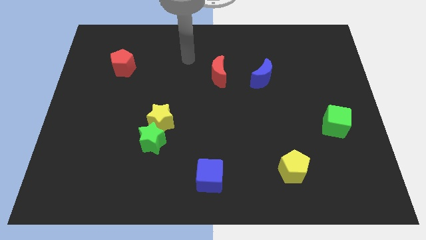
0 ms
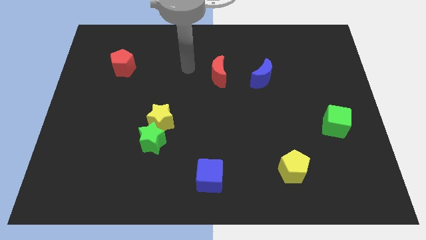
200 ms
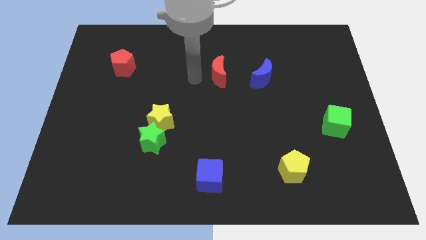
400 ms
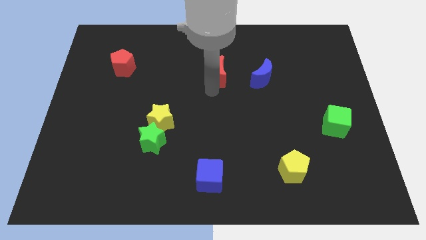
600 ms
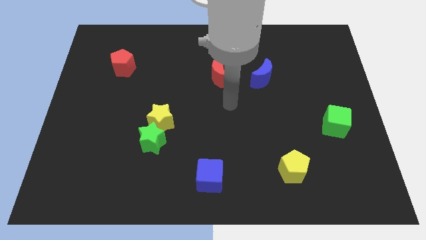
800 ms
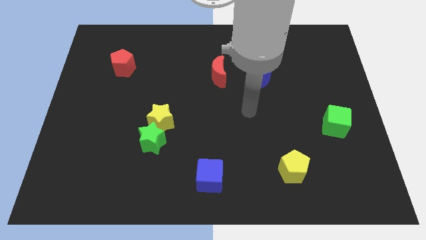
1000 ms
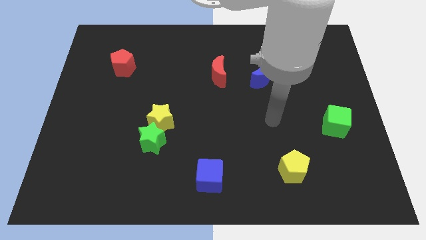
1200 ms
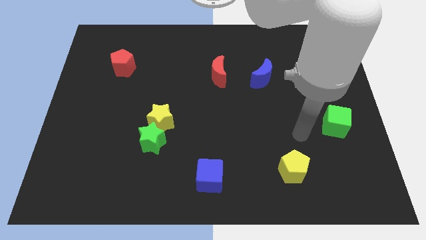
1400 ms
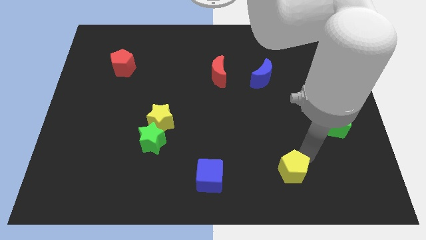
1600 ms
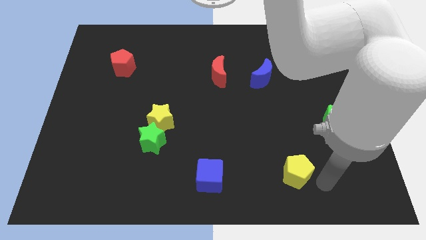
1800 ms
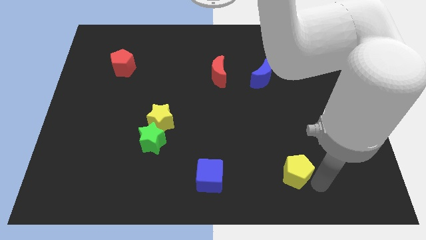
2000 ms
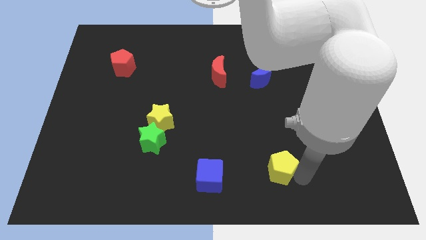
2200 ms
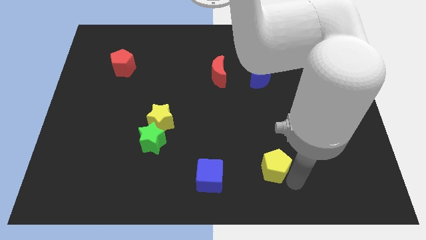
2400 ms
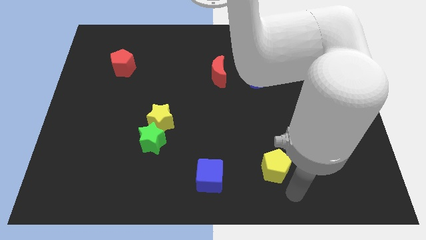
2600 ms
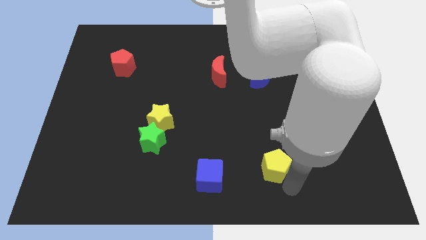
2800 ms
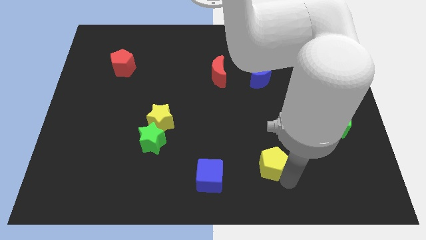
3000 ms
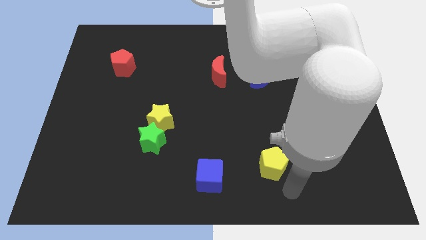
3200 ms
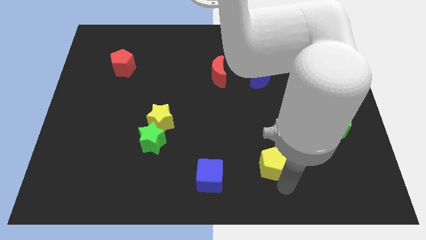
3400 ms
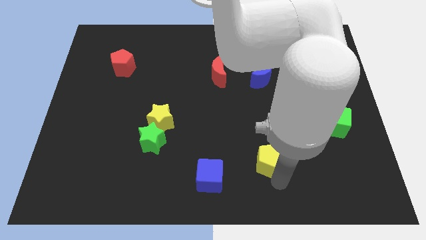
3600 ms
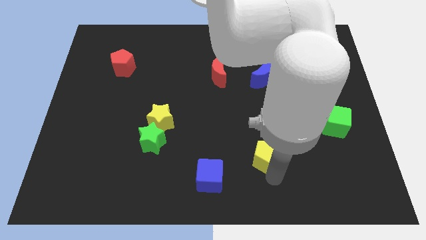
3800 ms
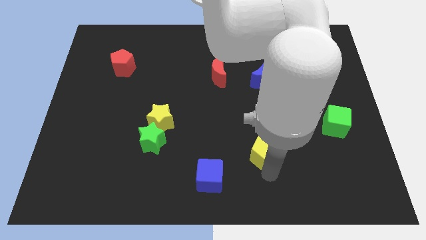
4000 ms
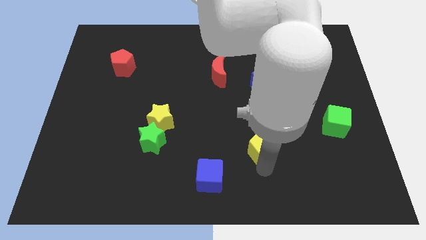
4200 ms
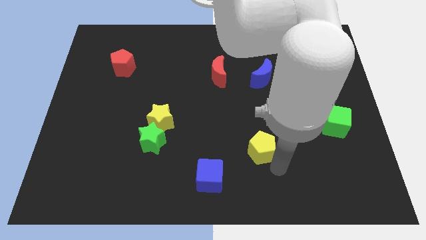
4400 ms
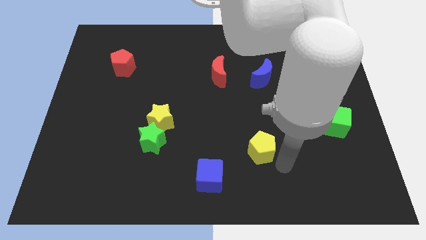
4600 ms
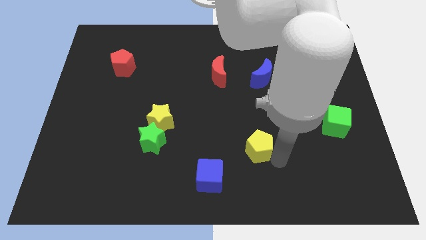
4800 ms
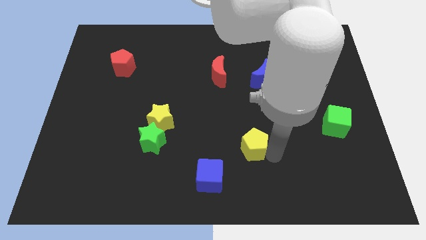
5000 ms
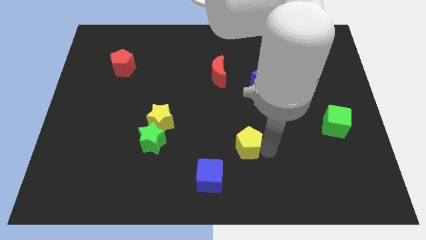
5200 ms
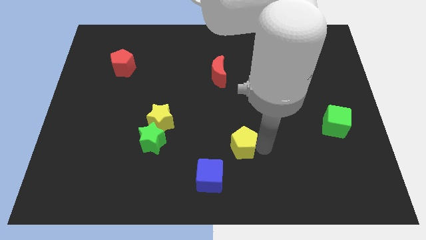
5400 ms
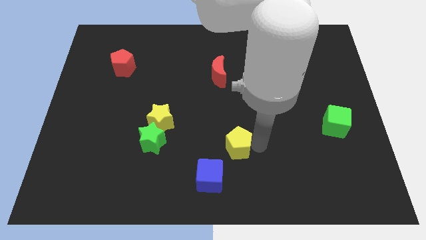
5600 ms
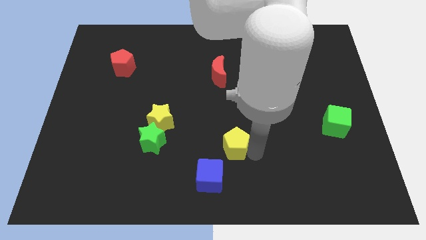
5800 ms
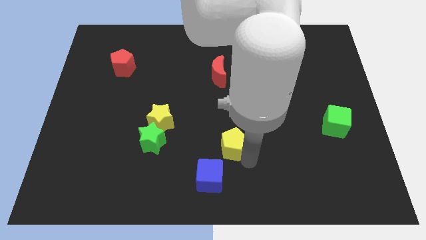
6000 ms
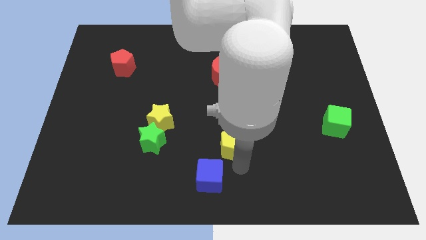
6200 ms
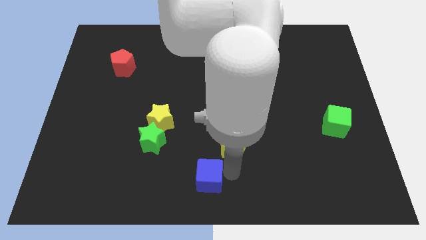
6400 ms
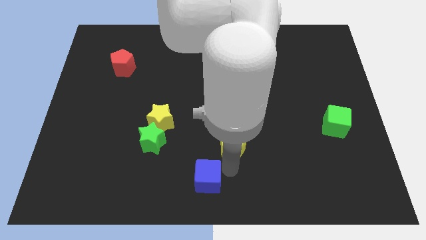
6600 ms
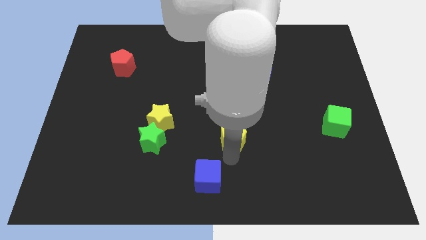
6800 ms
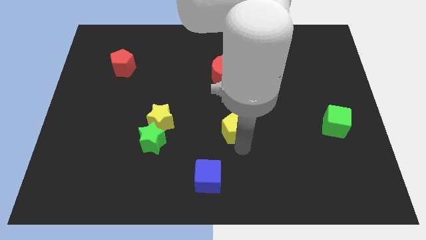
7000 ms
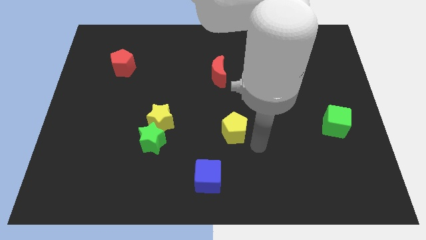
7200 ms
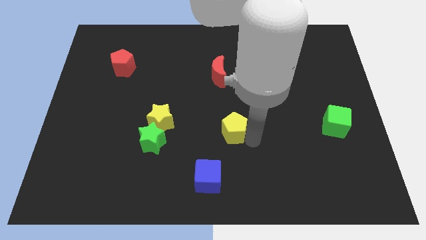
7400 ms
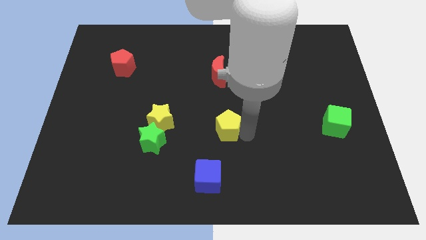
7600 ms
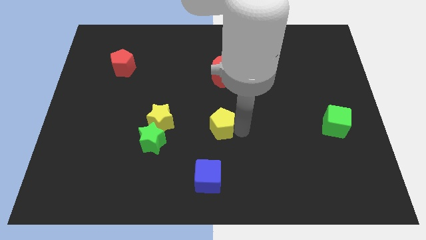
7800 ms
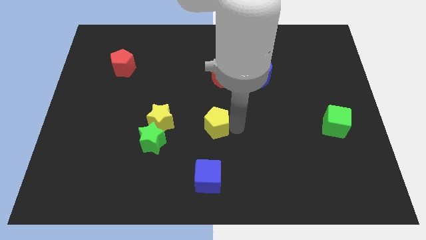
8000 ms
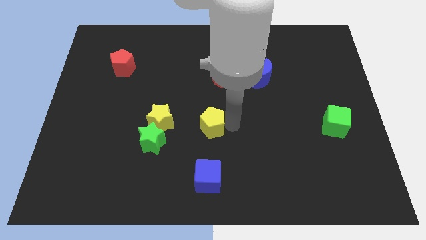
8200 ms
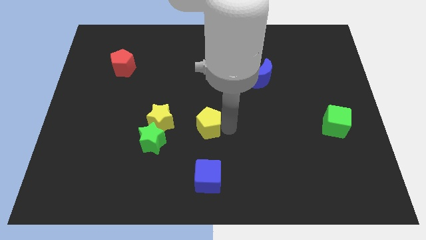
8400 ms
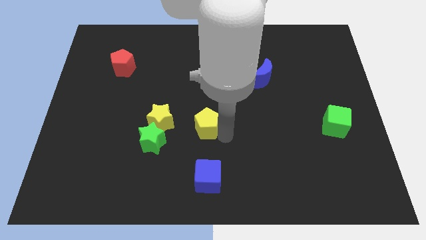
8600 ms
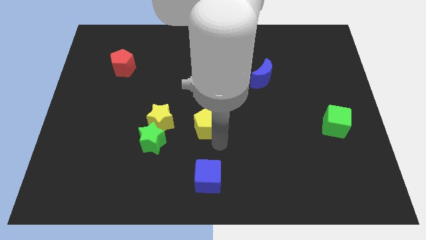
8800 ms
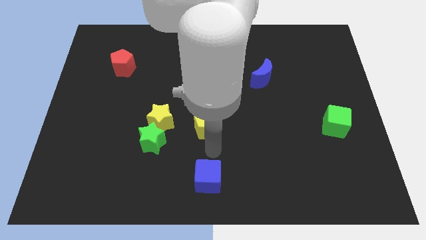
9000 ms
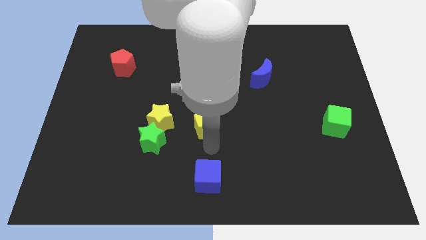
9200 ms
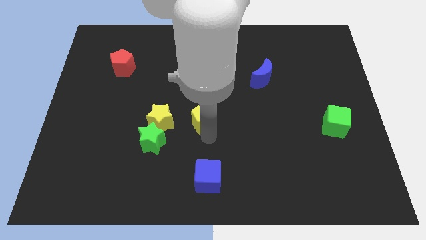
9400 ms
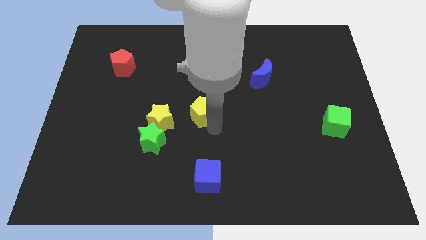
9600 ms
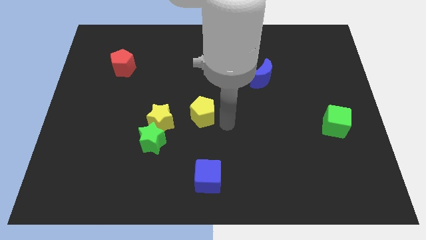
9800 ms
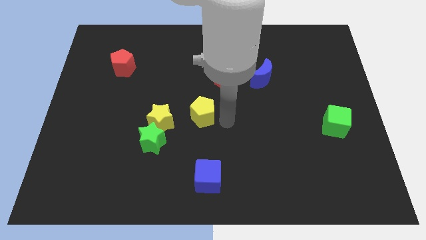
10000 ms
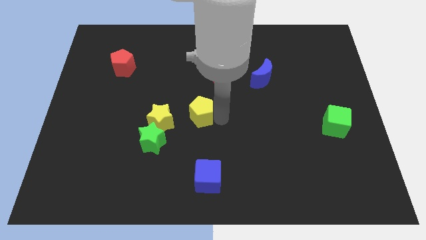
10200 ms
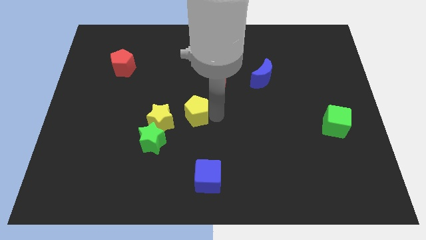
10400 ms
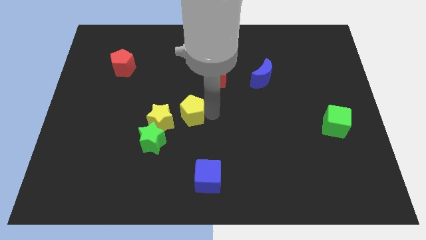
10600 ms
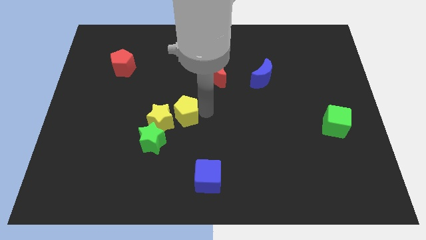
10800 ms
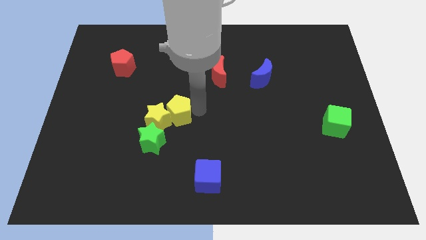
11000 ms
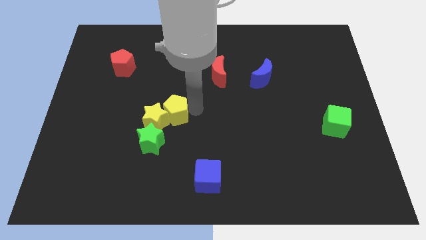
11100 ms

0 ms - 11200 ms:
push the yellow pentagon to the top of the green star

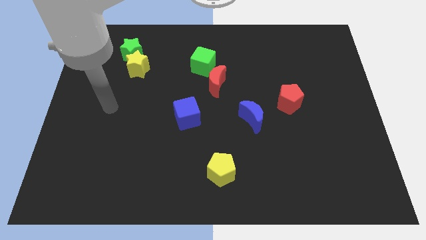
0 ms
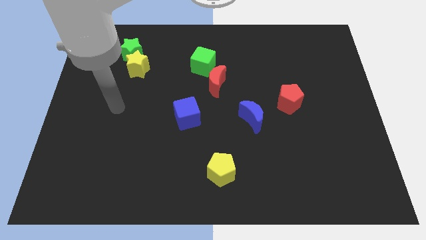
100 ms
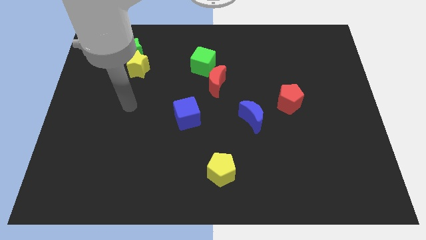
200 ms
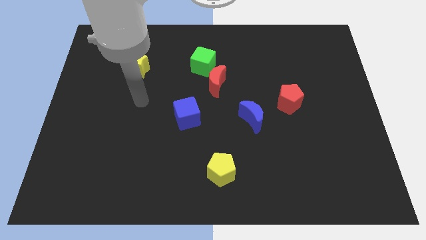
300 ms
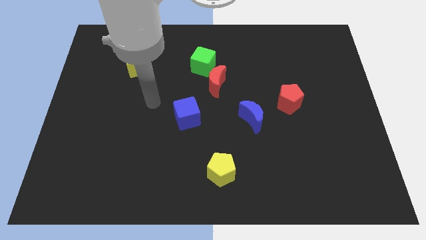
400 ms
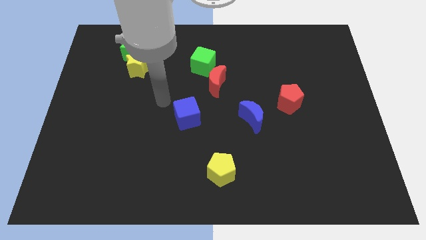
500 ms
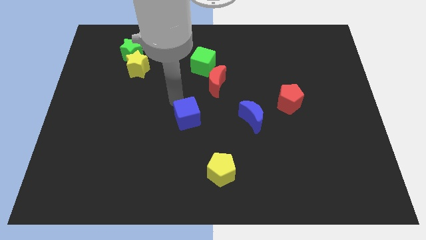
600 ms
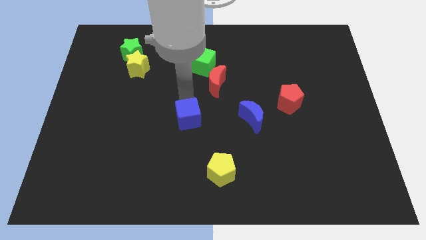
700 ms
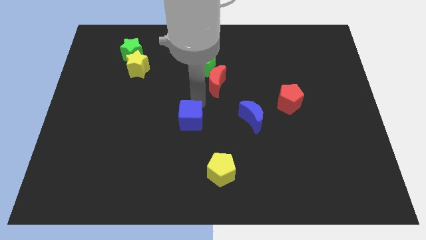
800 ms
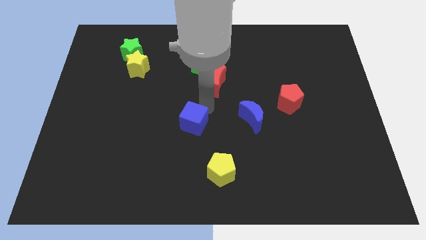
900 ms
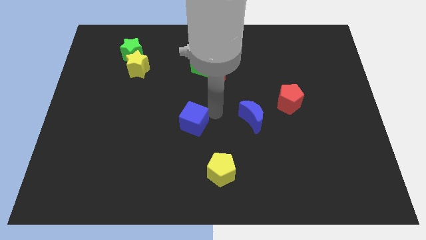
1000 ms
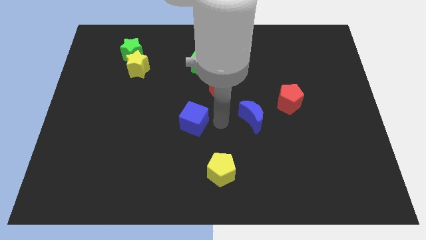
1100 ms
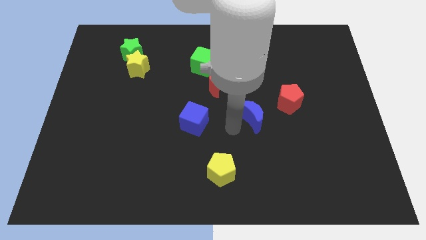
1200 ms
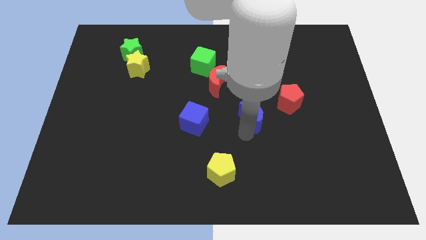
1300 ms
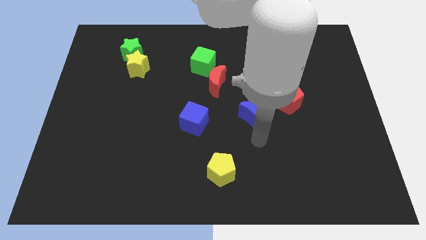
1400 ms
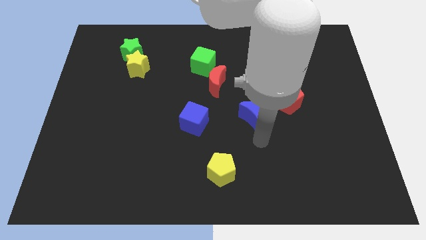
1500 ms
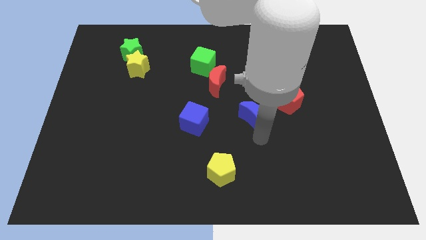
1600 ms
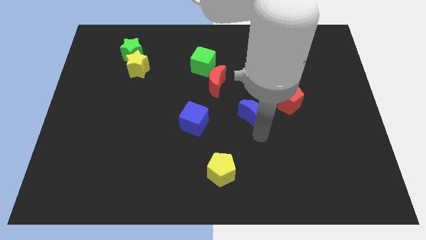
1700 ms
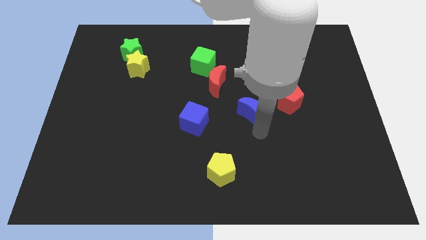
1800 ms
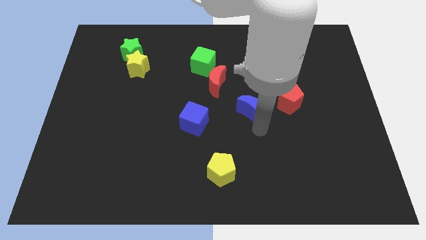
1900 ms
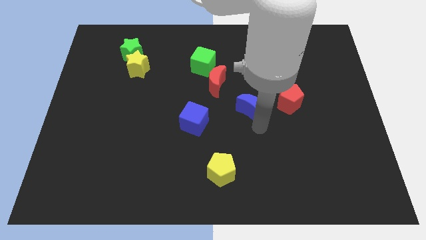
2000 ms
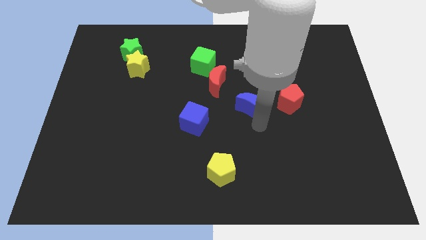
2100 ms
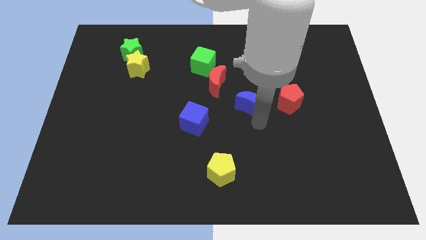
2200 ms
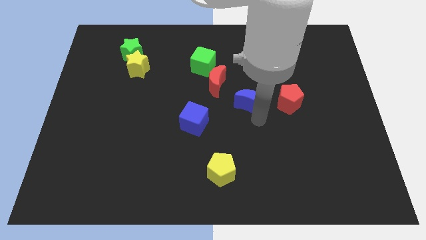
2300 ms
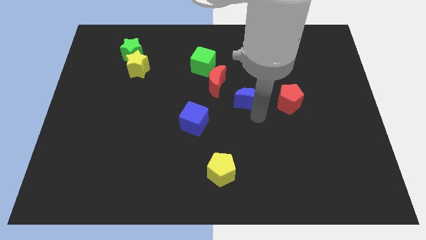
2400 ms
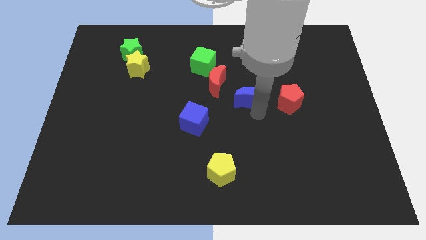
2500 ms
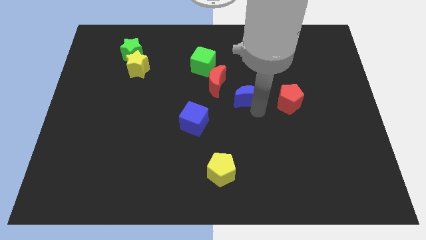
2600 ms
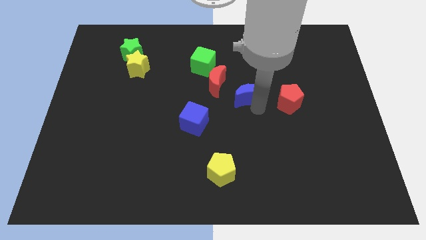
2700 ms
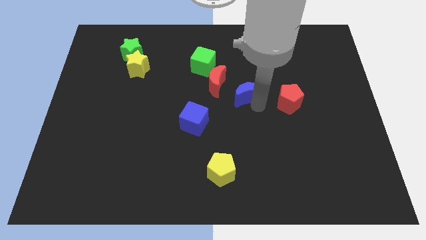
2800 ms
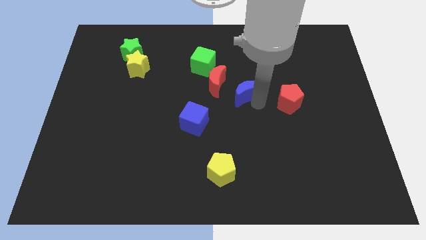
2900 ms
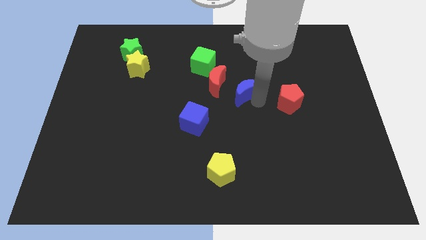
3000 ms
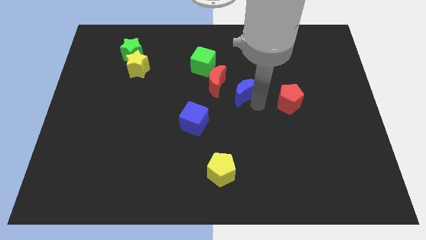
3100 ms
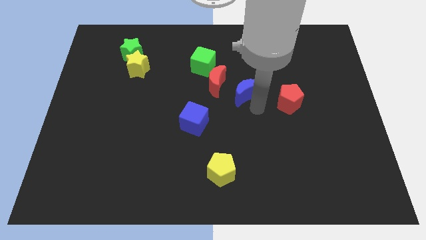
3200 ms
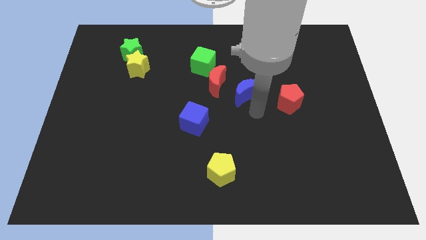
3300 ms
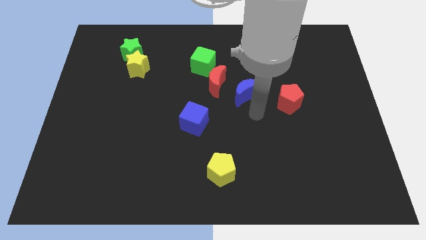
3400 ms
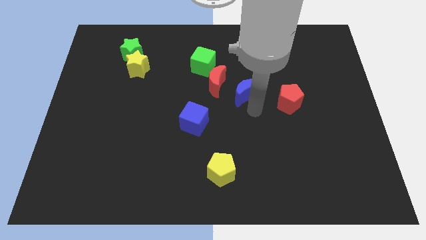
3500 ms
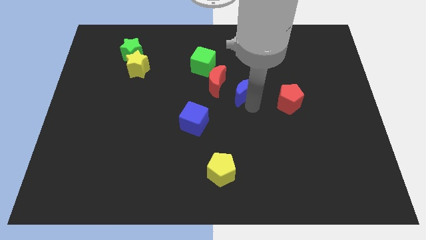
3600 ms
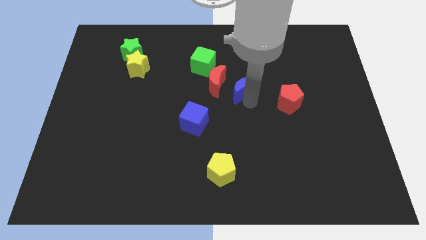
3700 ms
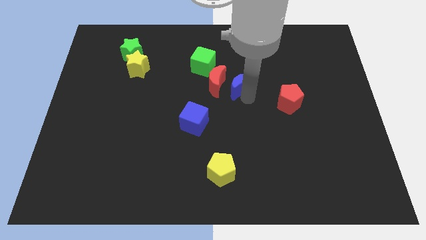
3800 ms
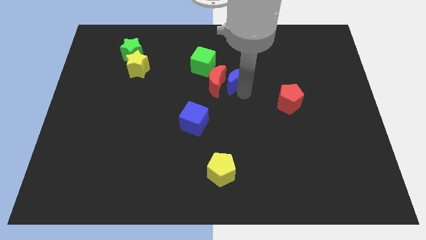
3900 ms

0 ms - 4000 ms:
put the blue moon to the top right side of the red moon
